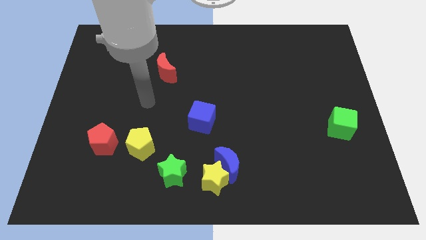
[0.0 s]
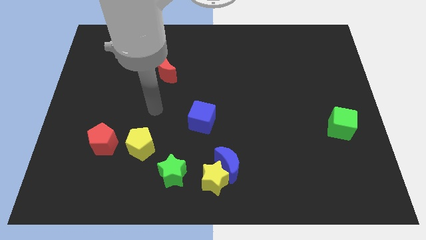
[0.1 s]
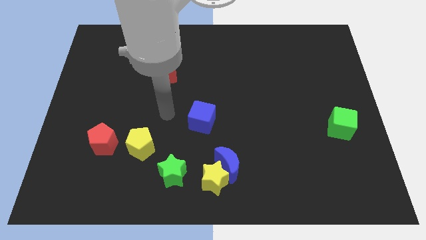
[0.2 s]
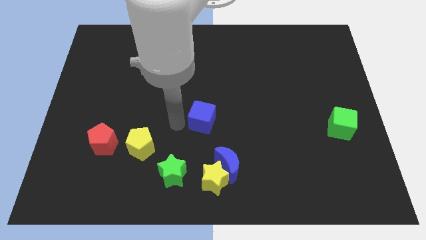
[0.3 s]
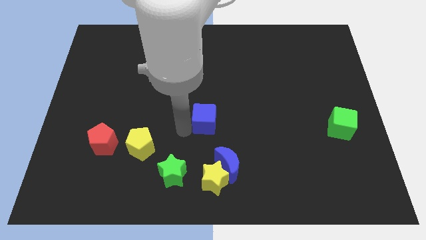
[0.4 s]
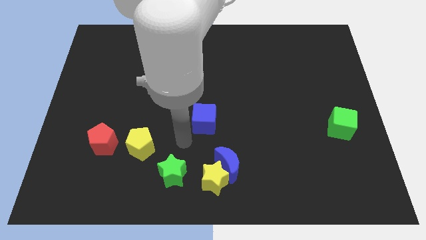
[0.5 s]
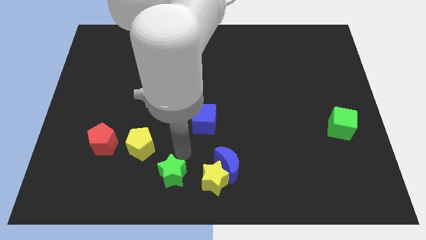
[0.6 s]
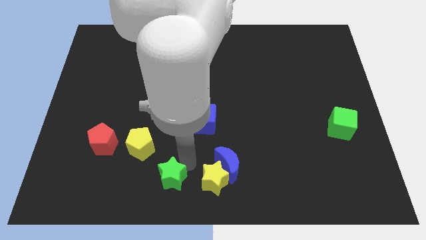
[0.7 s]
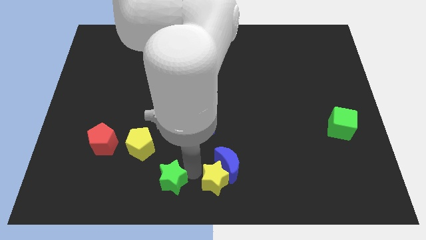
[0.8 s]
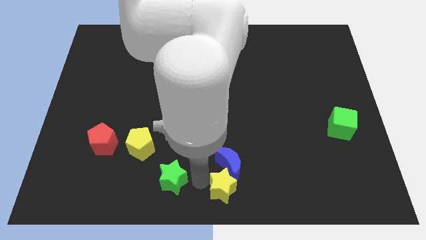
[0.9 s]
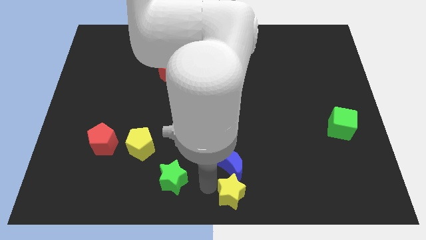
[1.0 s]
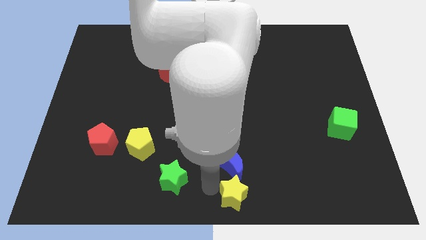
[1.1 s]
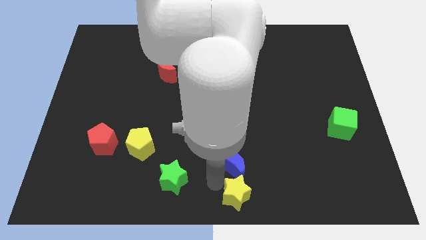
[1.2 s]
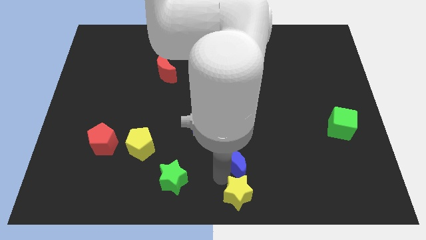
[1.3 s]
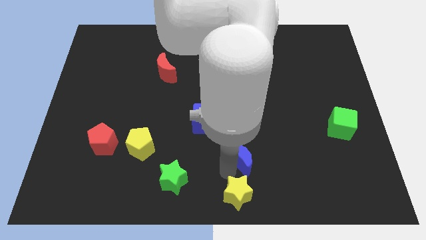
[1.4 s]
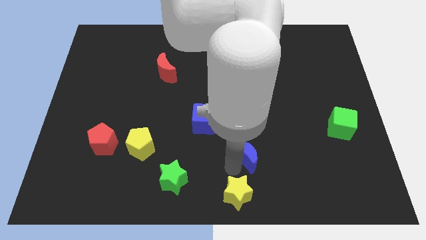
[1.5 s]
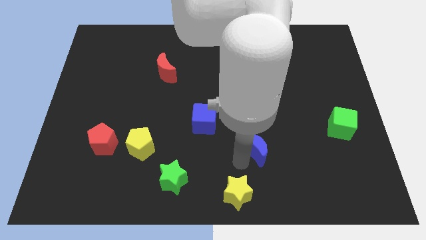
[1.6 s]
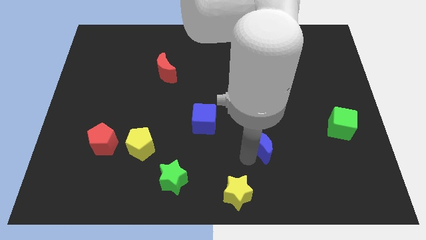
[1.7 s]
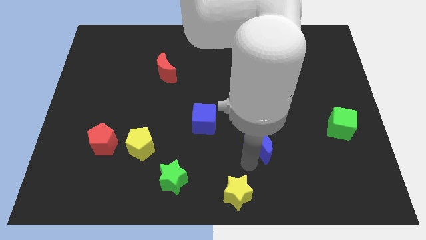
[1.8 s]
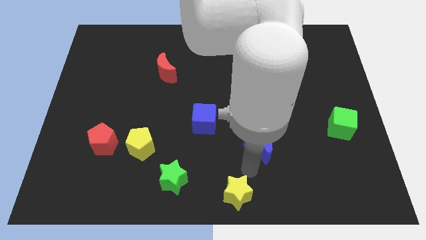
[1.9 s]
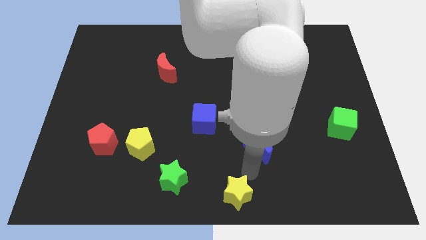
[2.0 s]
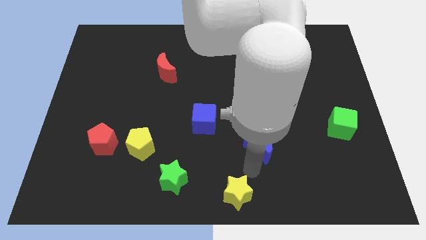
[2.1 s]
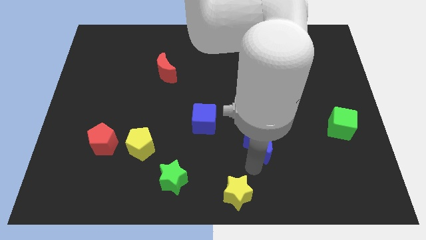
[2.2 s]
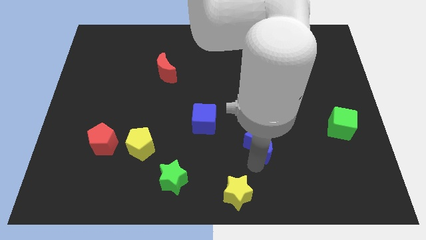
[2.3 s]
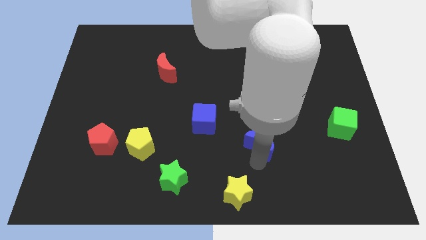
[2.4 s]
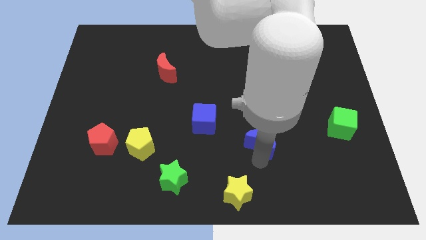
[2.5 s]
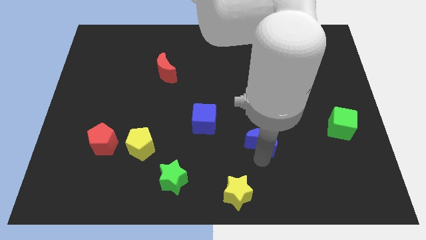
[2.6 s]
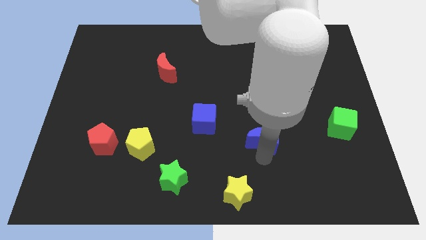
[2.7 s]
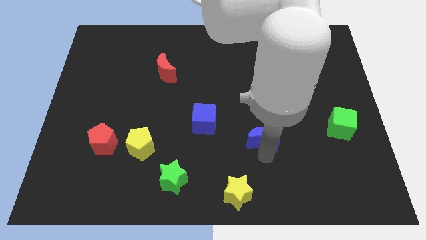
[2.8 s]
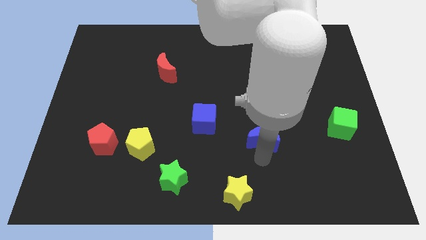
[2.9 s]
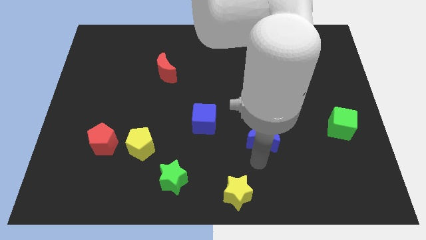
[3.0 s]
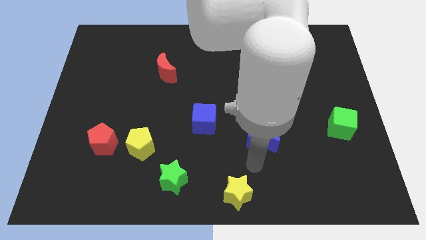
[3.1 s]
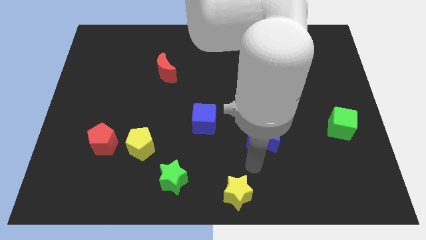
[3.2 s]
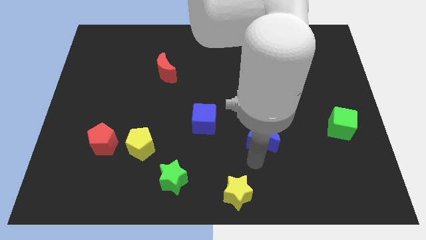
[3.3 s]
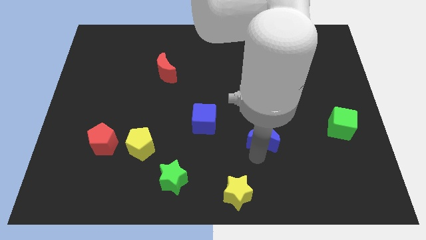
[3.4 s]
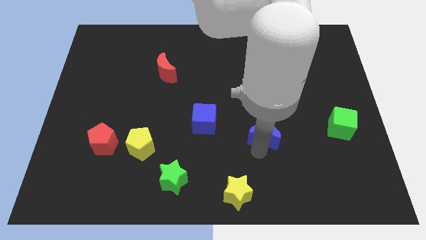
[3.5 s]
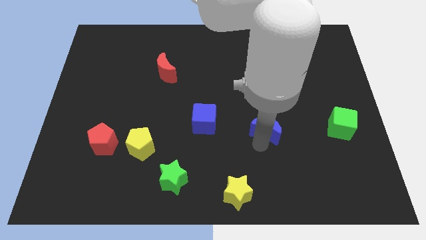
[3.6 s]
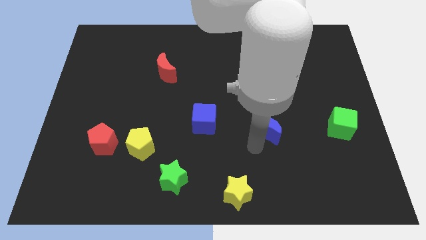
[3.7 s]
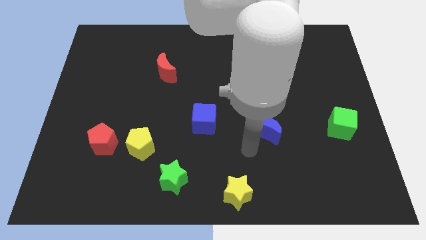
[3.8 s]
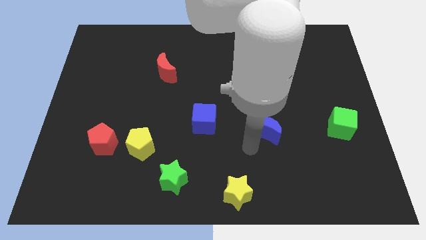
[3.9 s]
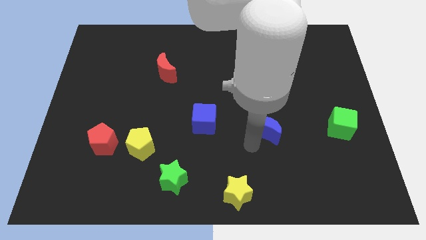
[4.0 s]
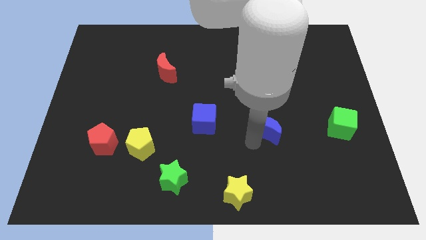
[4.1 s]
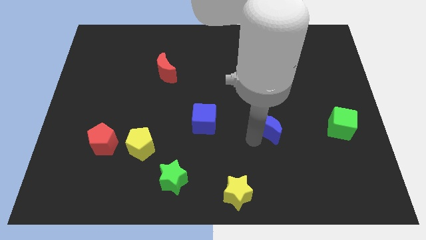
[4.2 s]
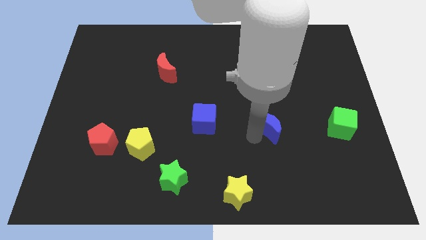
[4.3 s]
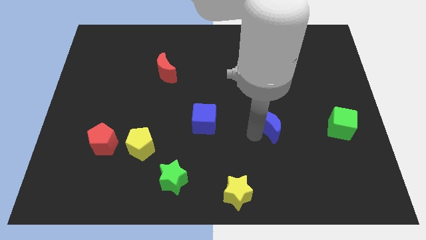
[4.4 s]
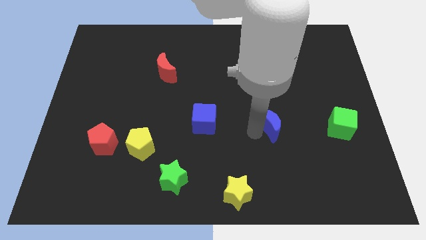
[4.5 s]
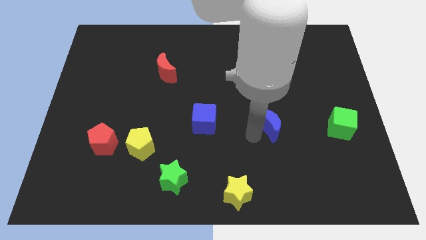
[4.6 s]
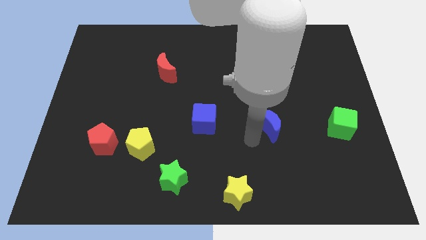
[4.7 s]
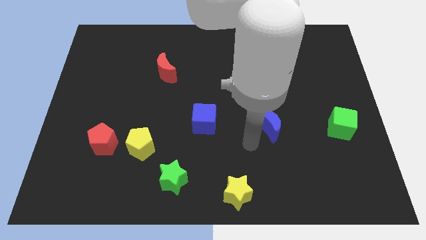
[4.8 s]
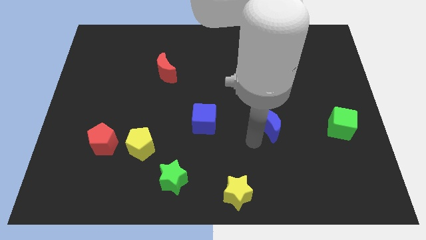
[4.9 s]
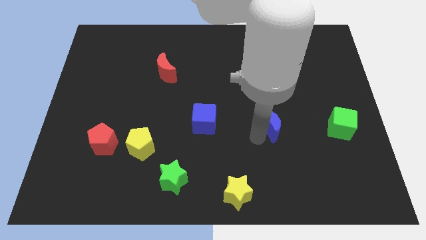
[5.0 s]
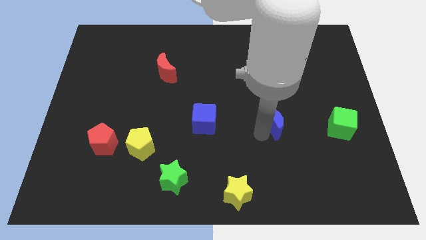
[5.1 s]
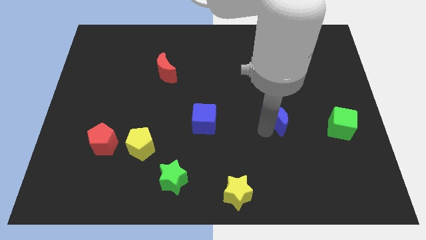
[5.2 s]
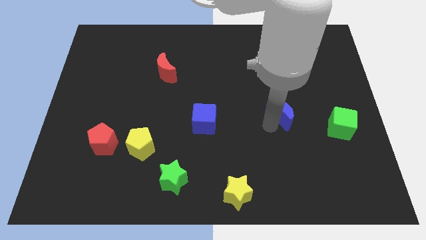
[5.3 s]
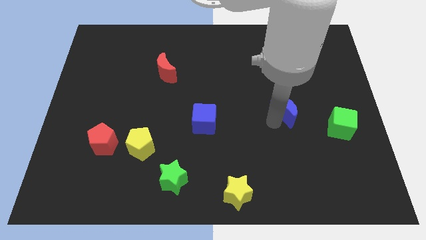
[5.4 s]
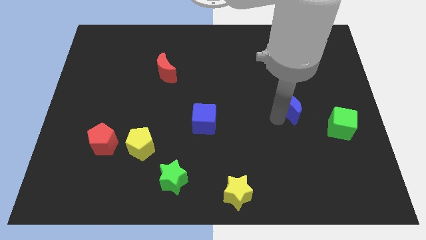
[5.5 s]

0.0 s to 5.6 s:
slide the blue moon up and then right

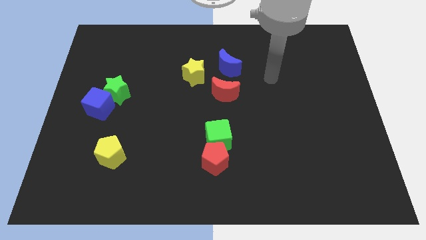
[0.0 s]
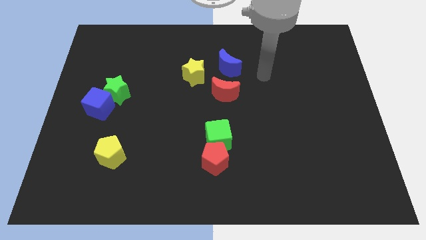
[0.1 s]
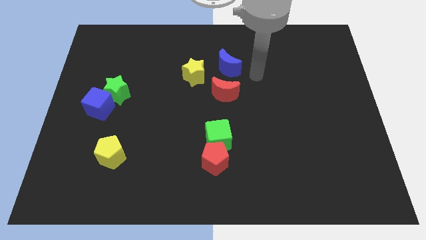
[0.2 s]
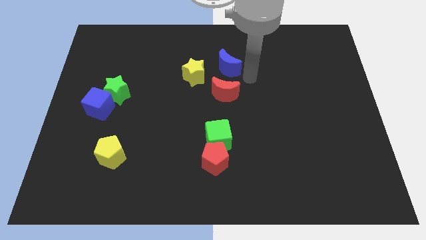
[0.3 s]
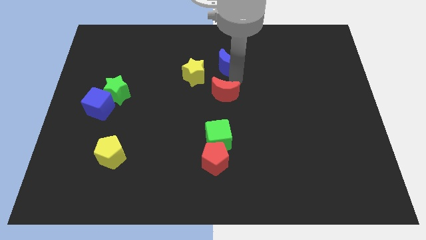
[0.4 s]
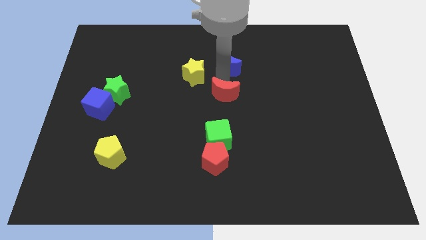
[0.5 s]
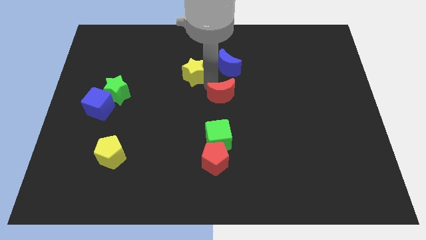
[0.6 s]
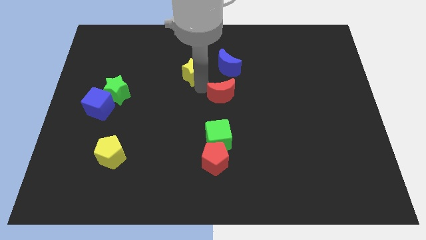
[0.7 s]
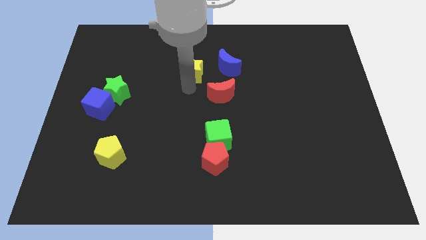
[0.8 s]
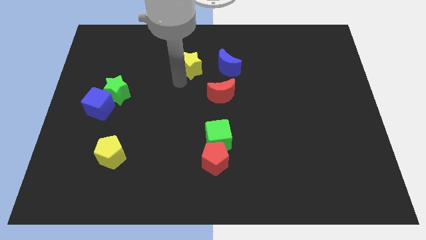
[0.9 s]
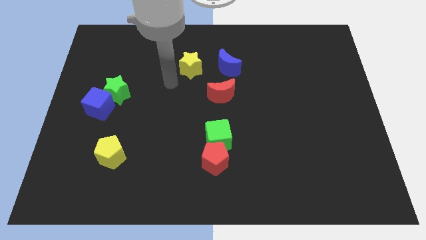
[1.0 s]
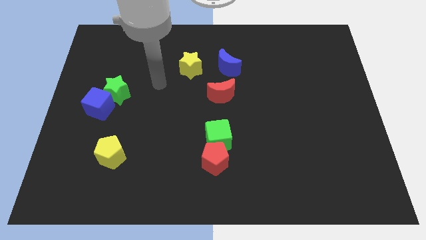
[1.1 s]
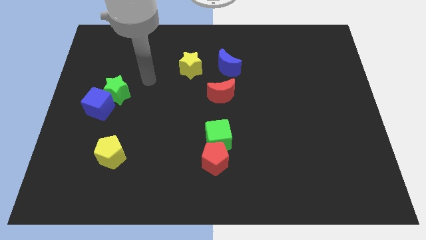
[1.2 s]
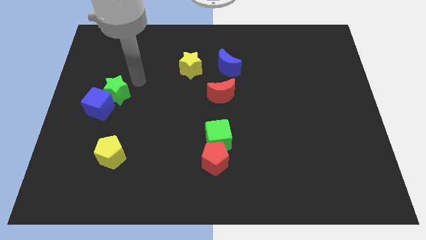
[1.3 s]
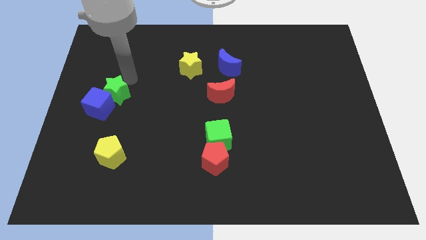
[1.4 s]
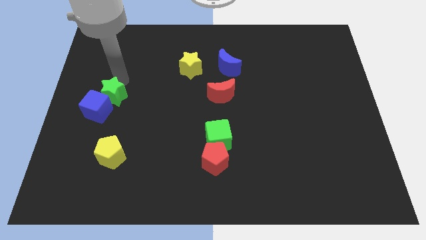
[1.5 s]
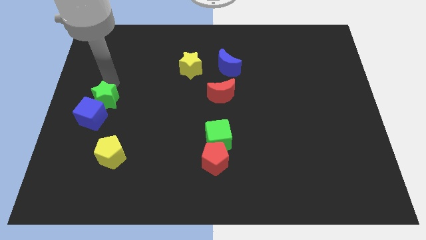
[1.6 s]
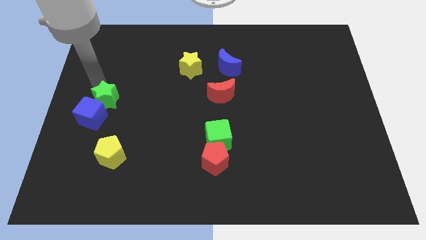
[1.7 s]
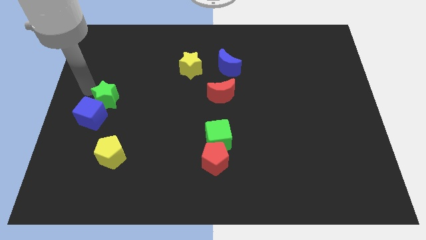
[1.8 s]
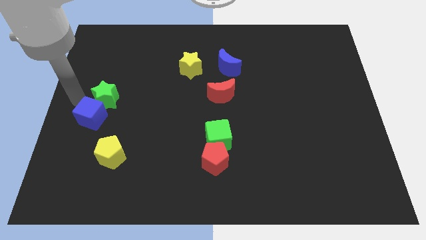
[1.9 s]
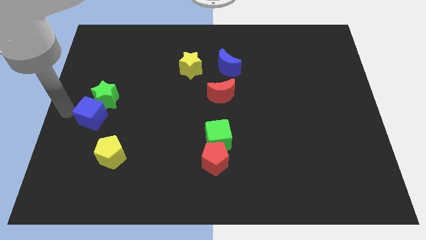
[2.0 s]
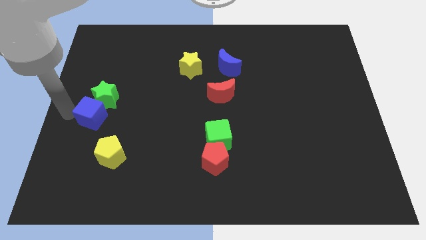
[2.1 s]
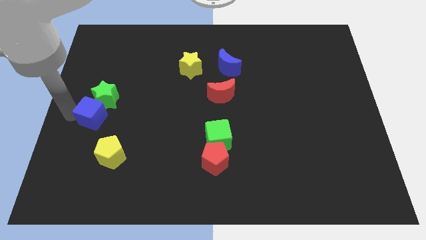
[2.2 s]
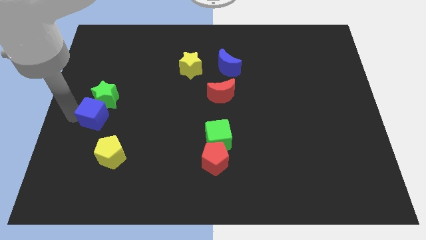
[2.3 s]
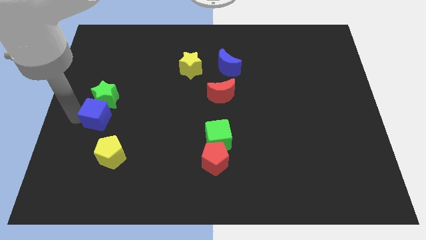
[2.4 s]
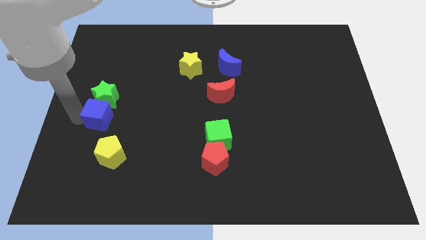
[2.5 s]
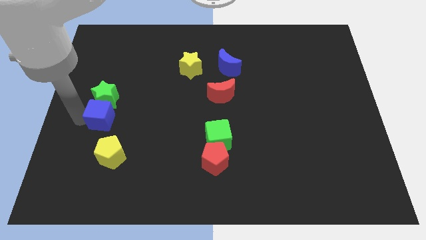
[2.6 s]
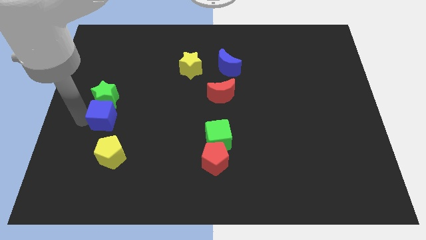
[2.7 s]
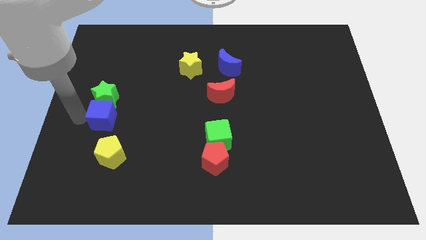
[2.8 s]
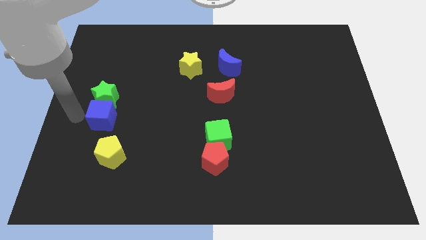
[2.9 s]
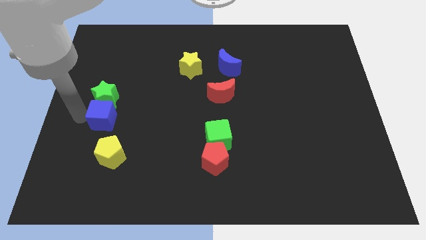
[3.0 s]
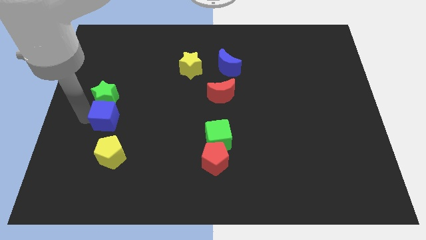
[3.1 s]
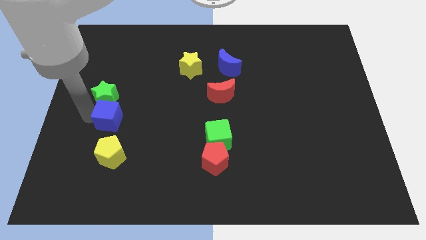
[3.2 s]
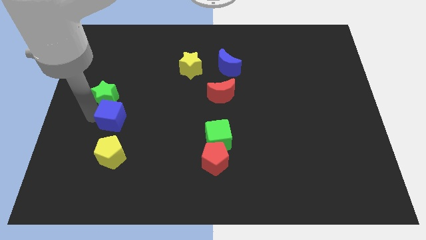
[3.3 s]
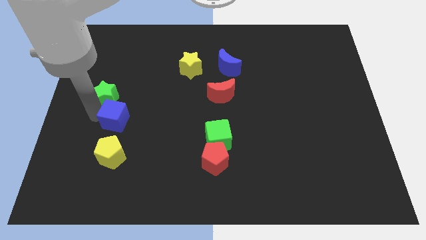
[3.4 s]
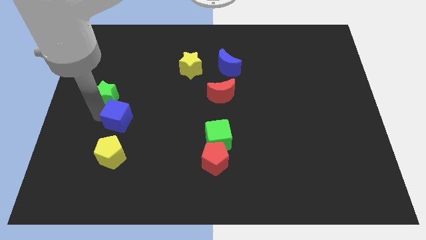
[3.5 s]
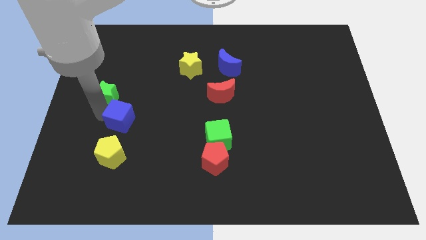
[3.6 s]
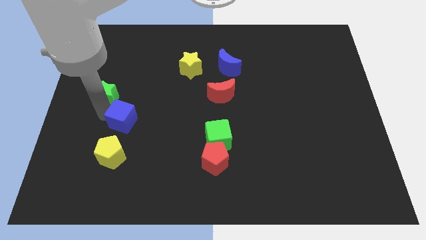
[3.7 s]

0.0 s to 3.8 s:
slide the blue cube slightly down and to the right
